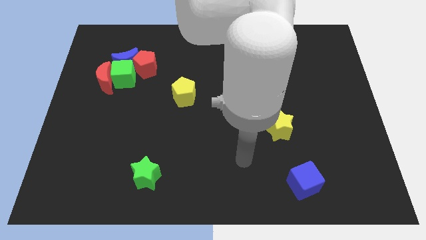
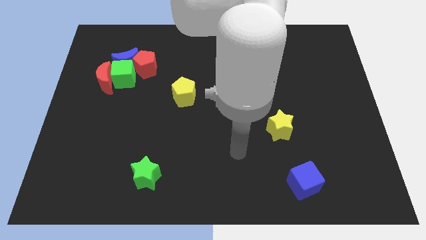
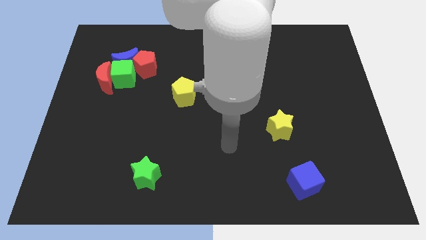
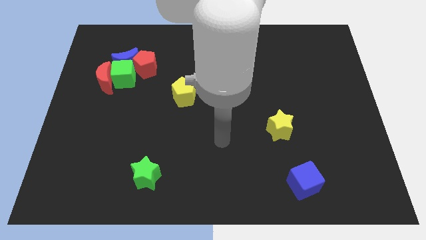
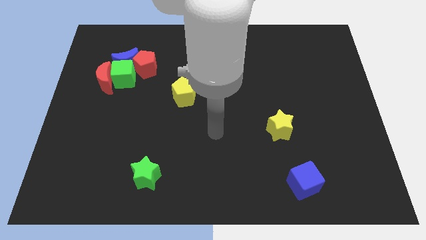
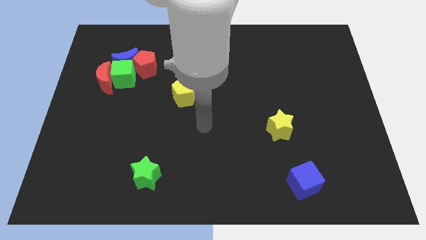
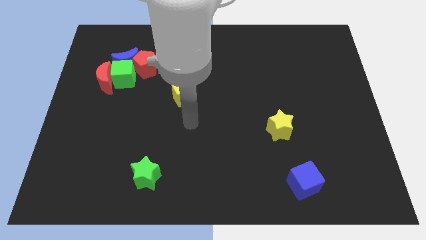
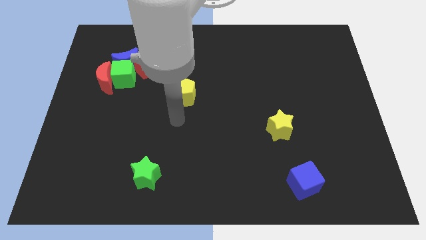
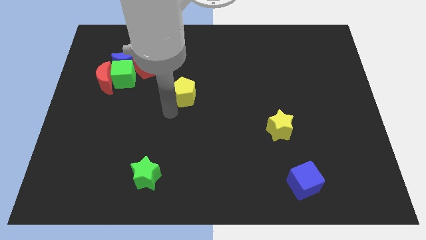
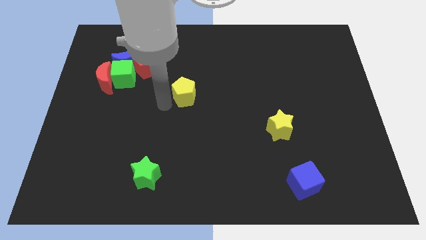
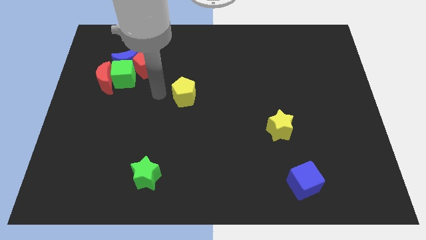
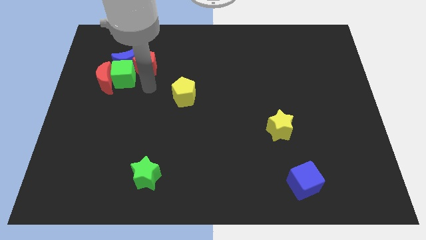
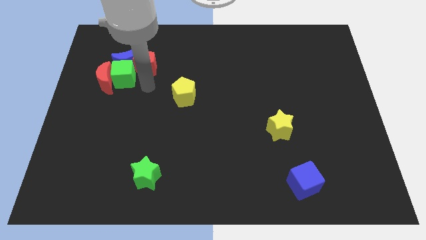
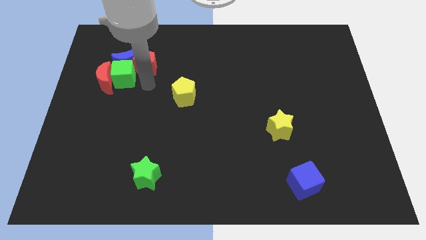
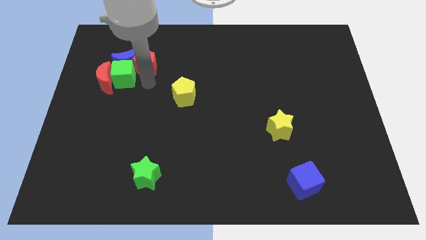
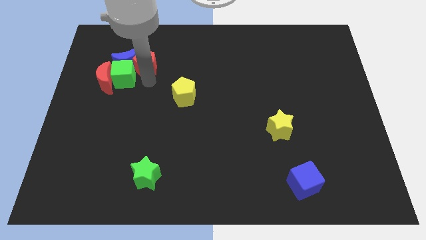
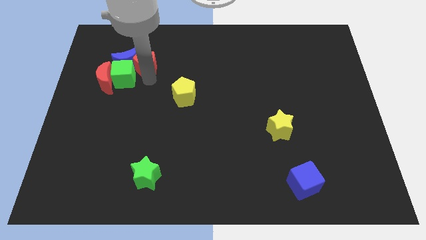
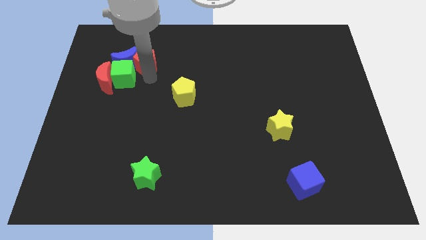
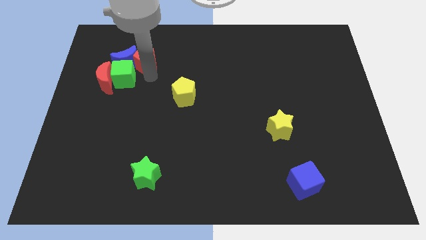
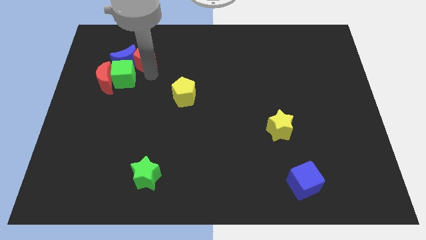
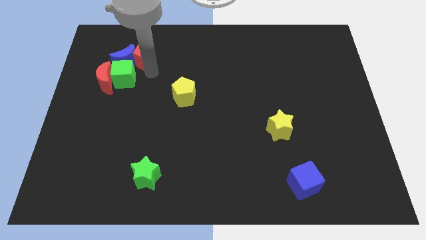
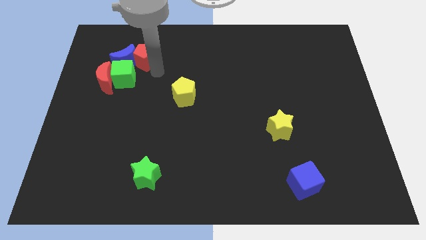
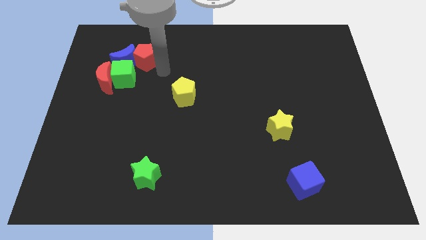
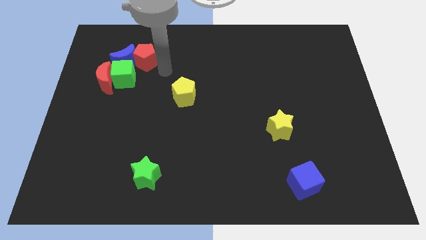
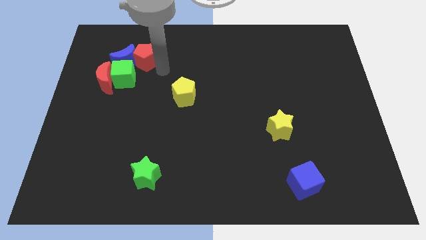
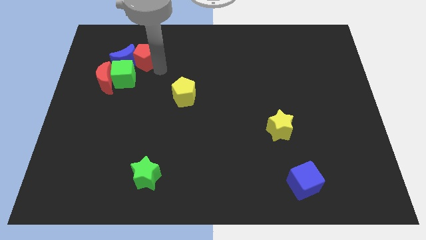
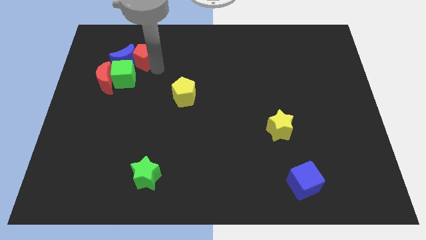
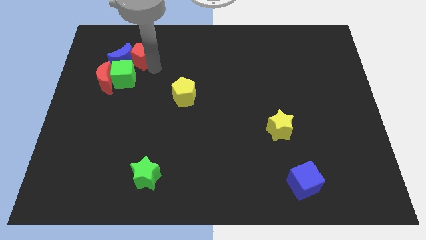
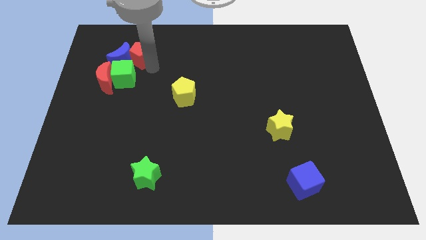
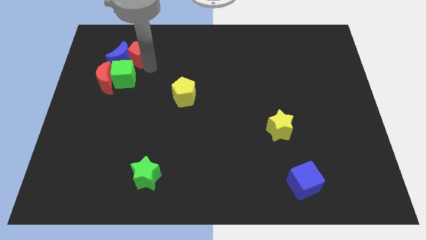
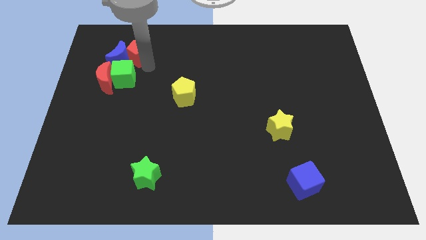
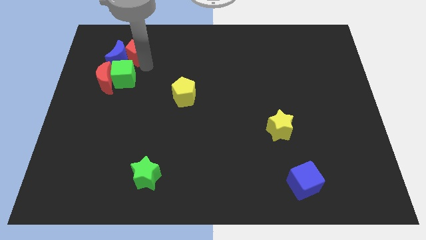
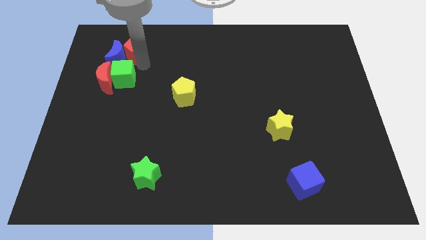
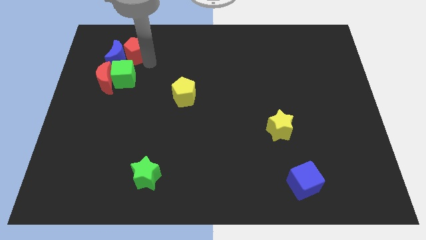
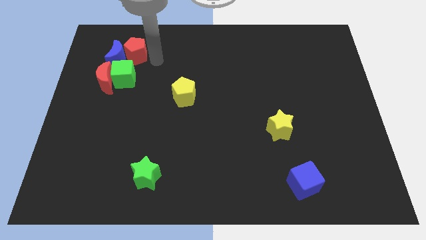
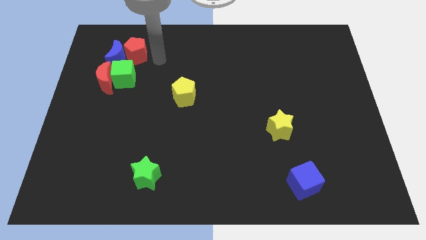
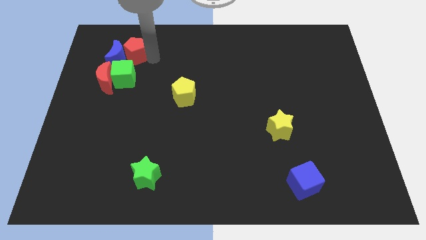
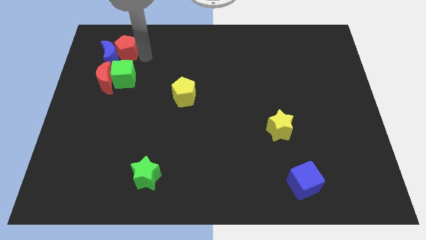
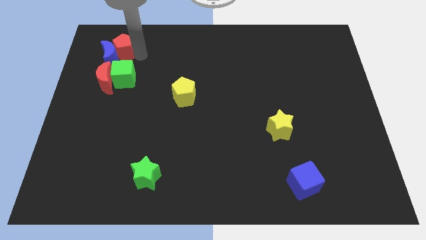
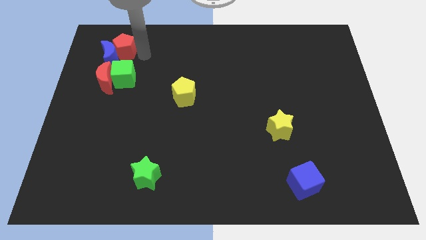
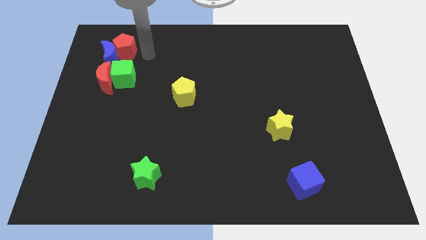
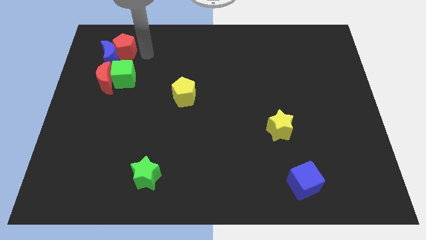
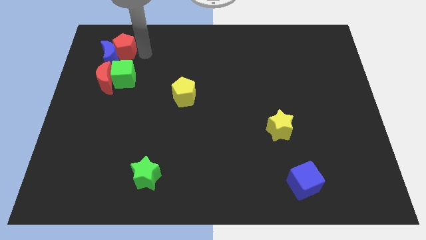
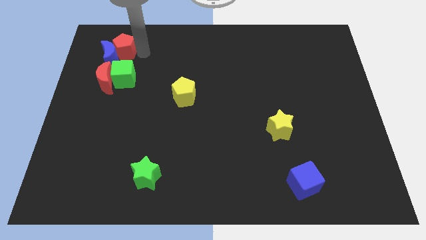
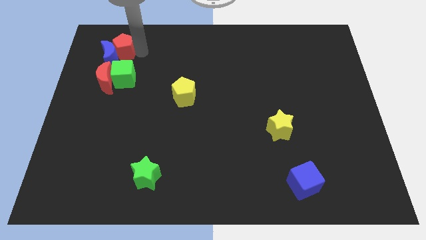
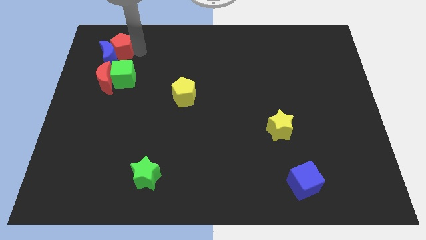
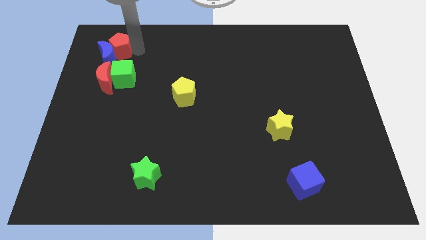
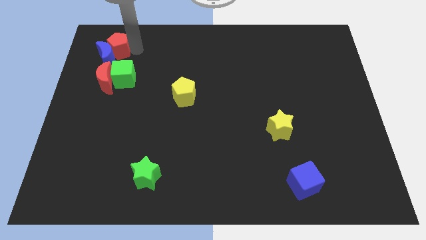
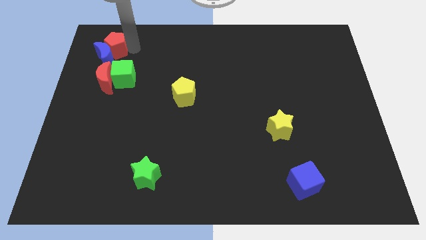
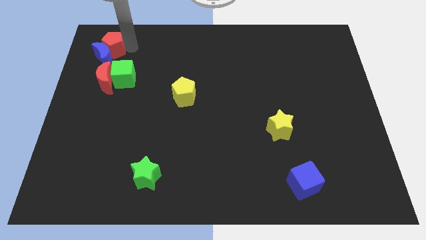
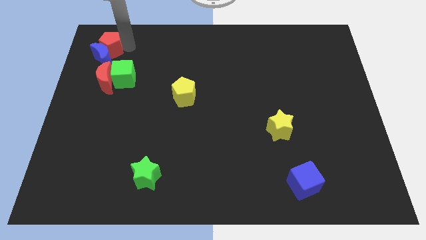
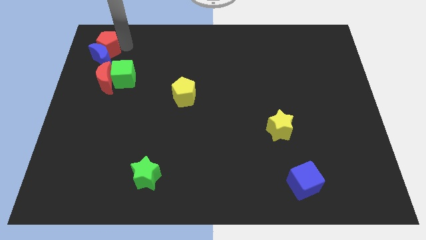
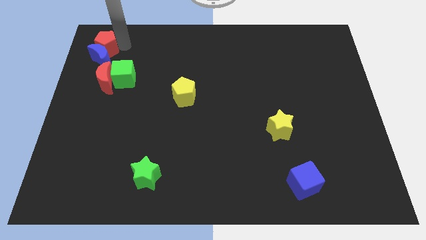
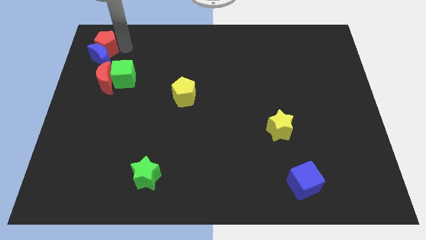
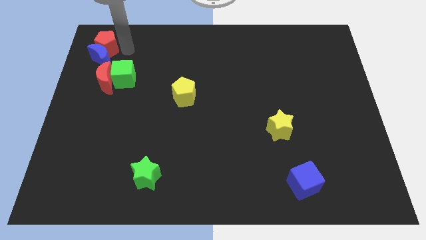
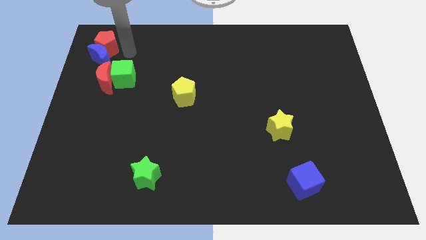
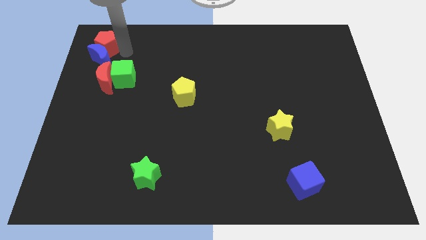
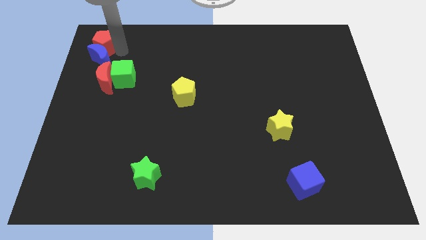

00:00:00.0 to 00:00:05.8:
put the red pentagon to the top left

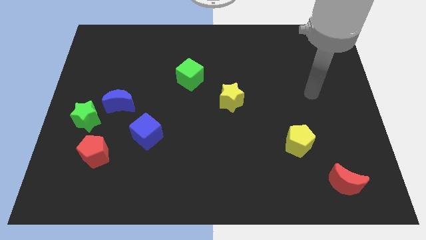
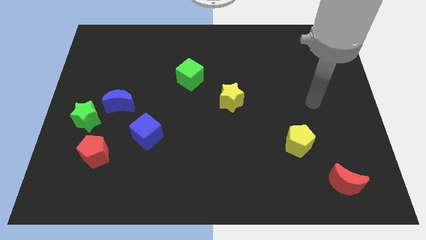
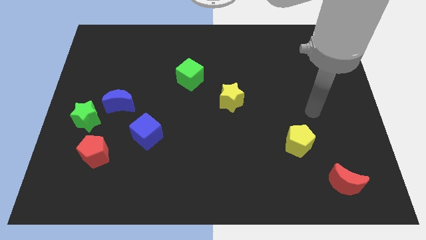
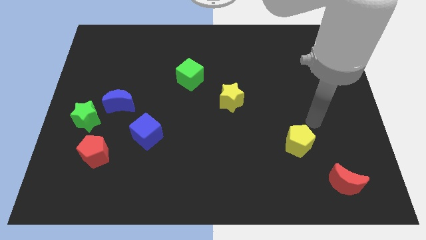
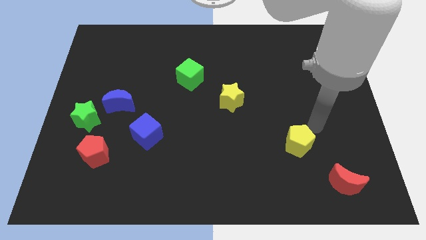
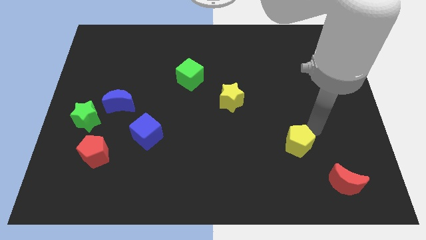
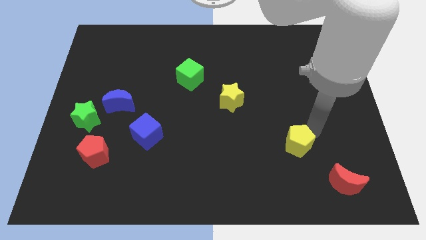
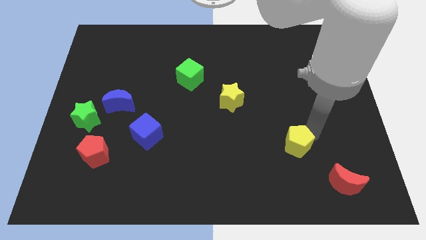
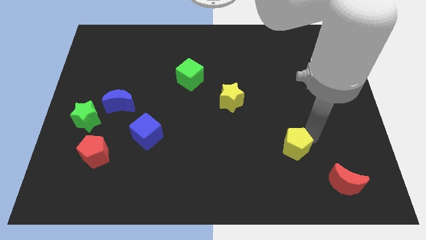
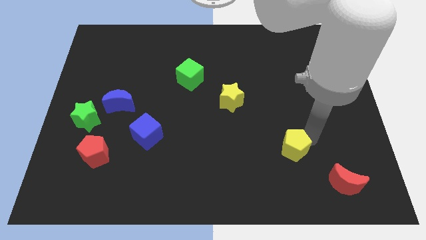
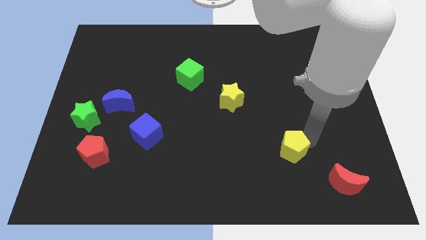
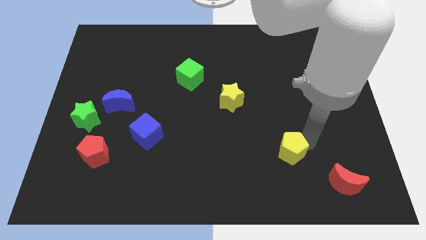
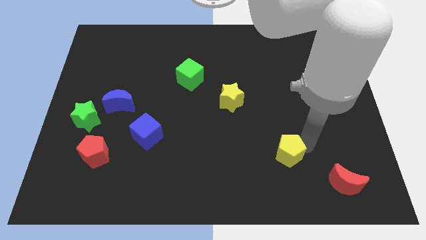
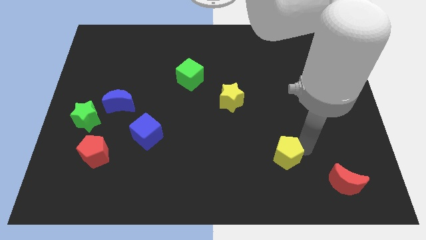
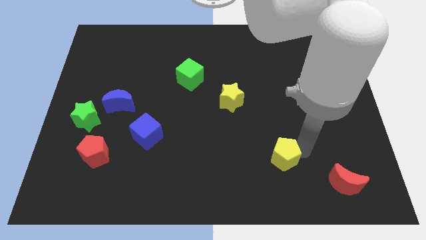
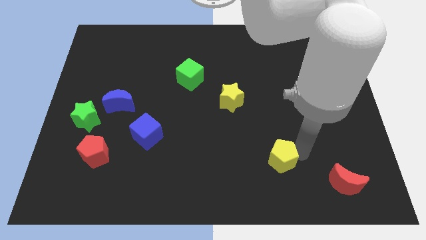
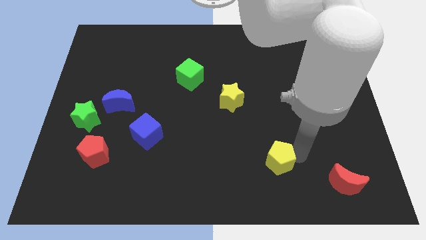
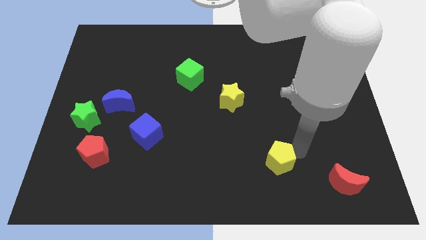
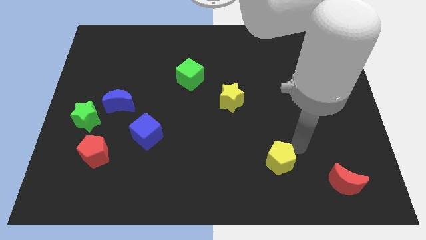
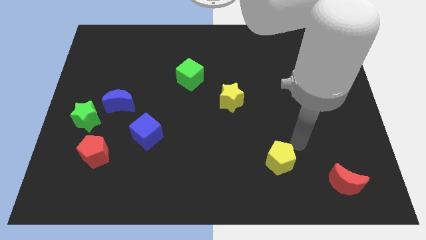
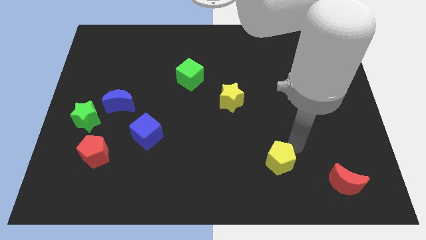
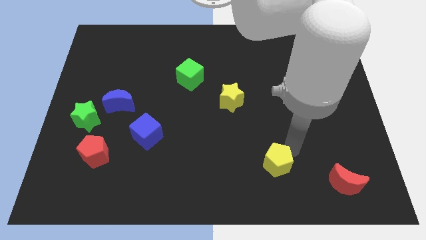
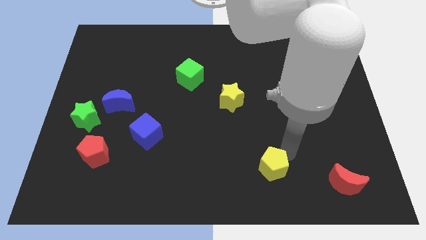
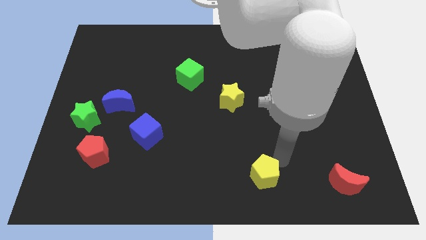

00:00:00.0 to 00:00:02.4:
slide the yellow pentagon to the bottom side
